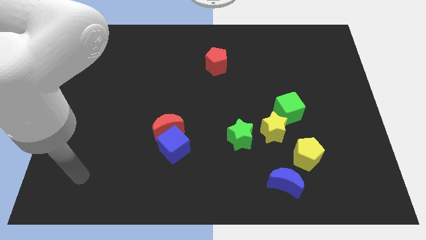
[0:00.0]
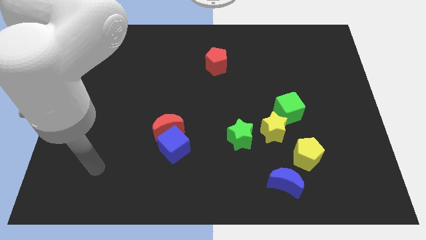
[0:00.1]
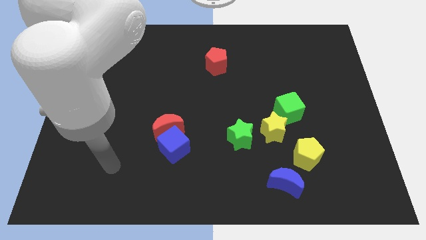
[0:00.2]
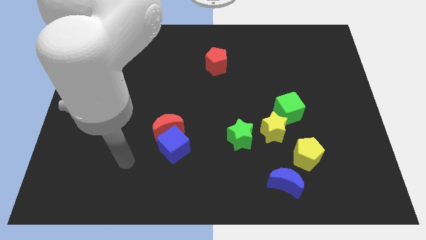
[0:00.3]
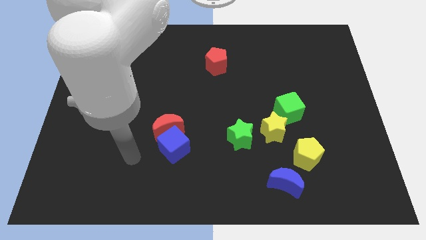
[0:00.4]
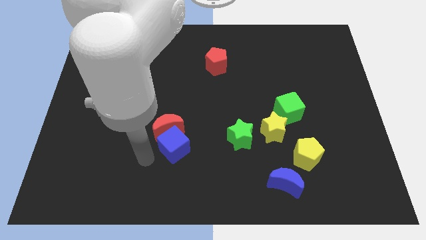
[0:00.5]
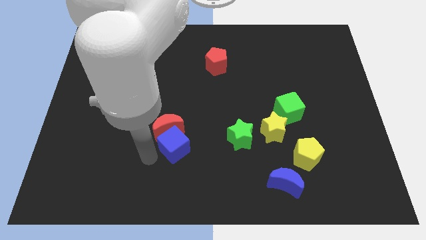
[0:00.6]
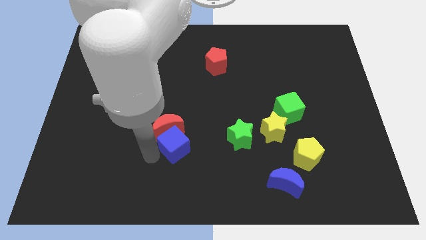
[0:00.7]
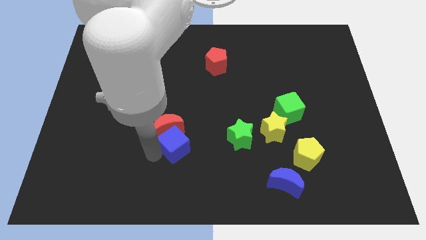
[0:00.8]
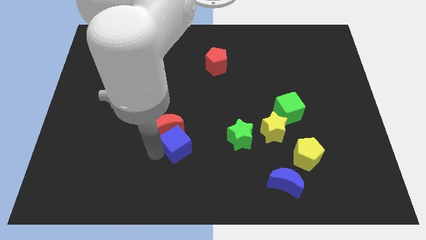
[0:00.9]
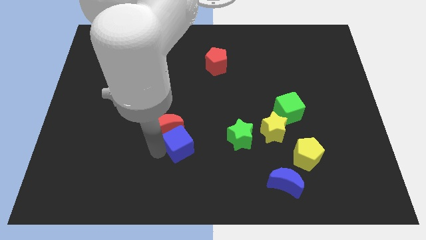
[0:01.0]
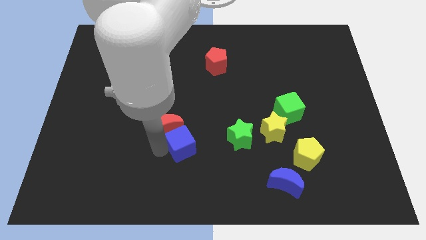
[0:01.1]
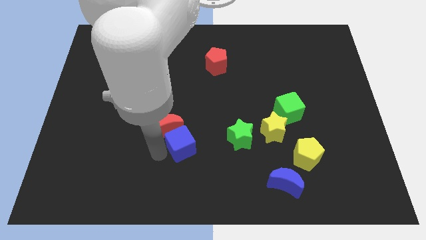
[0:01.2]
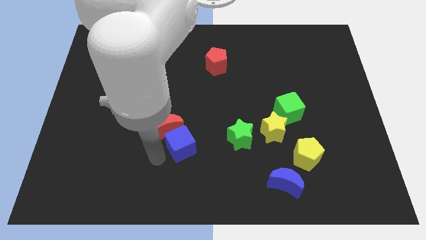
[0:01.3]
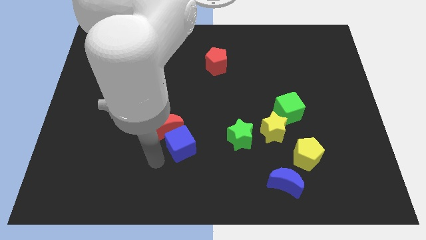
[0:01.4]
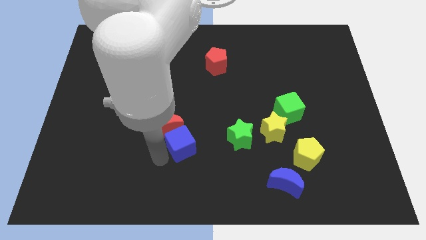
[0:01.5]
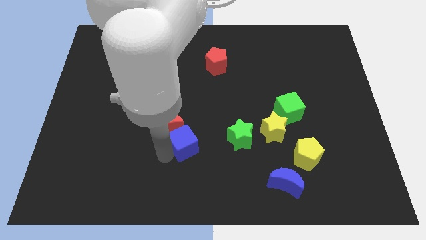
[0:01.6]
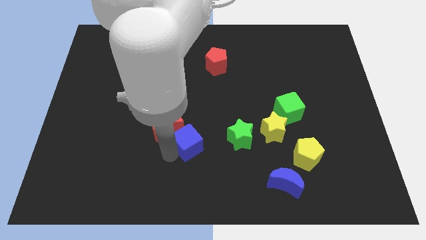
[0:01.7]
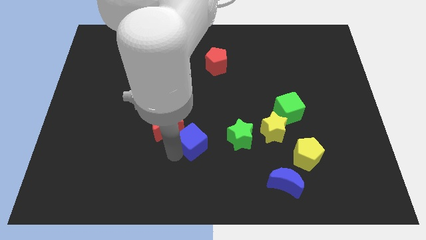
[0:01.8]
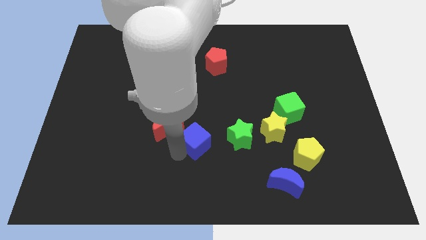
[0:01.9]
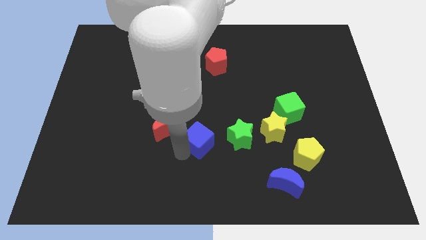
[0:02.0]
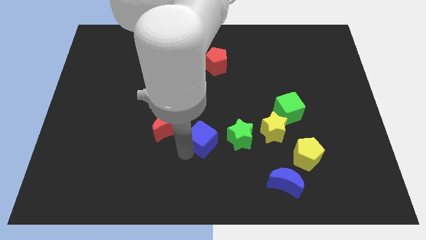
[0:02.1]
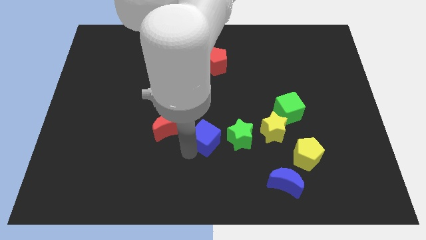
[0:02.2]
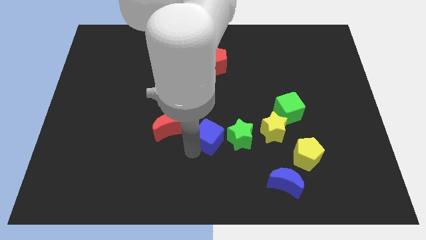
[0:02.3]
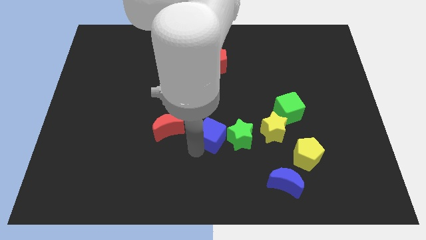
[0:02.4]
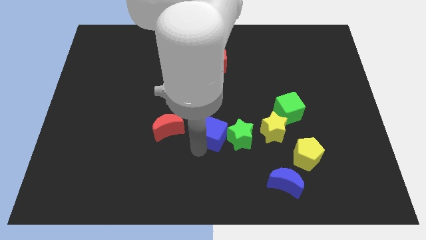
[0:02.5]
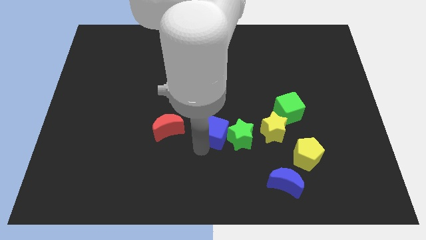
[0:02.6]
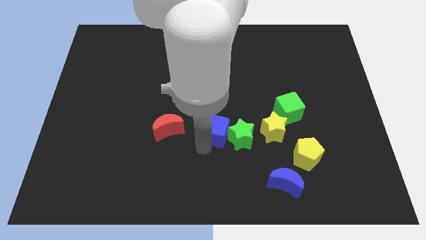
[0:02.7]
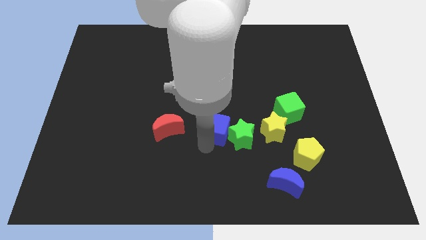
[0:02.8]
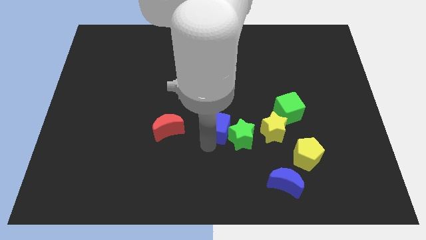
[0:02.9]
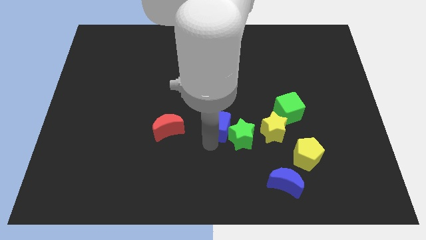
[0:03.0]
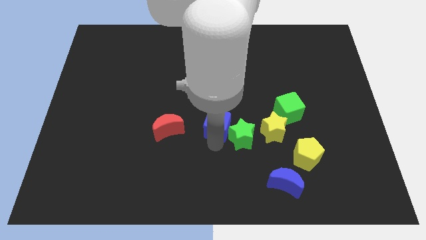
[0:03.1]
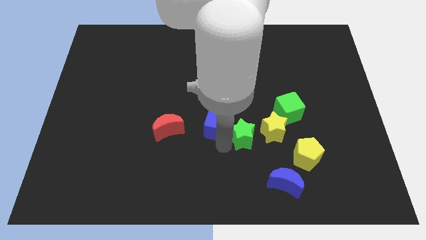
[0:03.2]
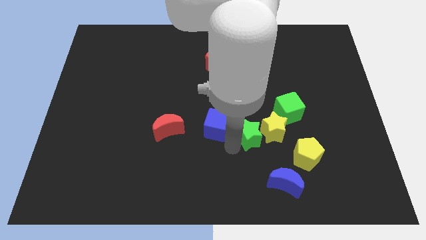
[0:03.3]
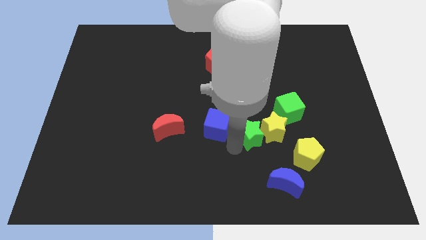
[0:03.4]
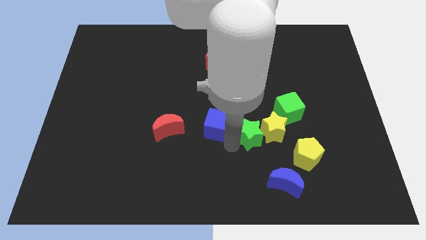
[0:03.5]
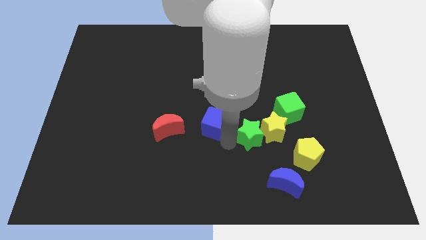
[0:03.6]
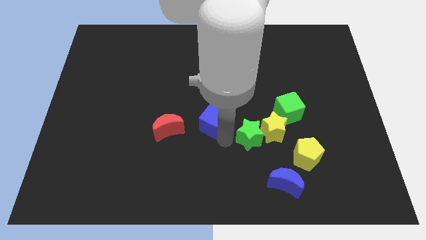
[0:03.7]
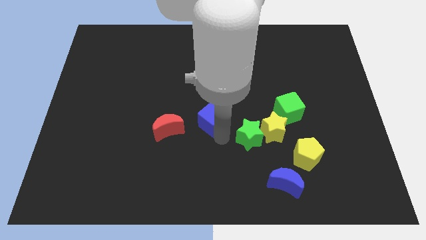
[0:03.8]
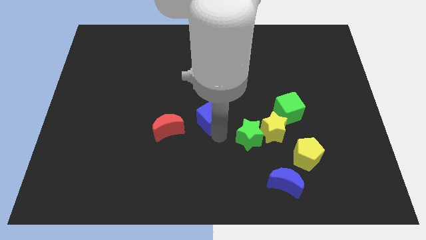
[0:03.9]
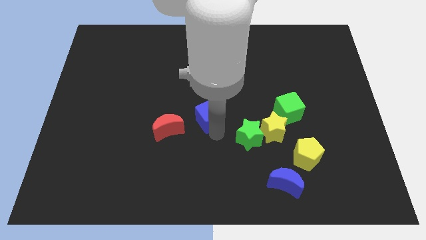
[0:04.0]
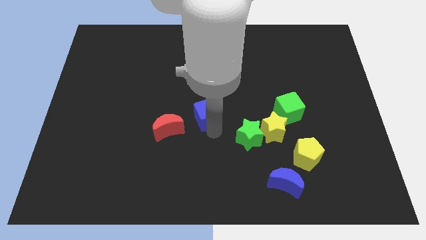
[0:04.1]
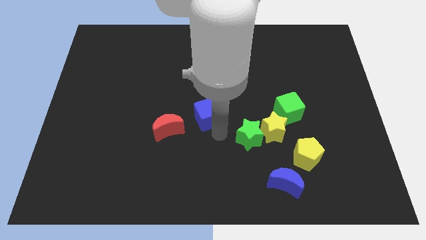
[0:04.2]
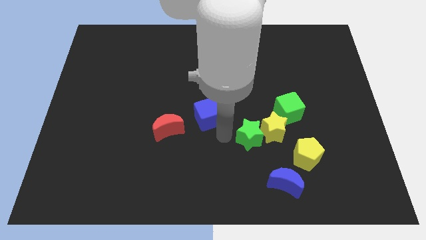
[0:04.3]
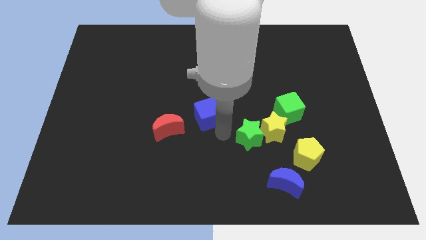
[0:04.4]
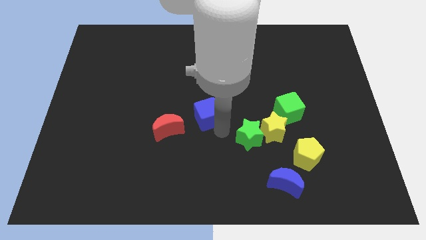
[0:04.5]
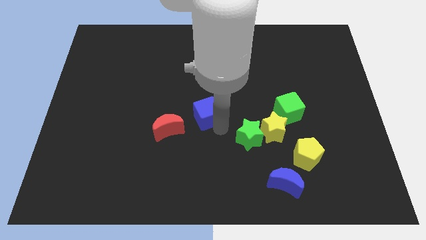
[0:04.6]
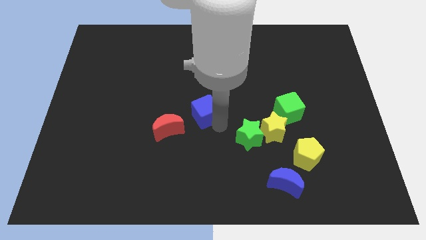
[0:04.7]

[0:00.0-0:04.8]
slide the blue cube a little up

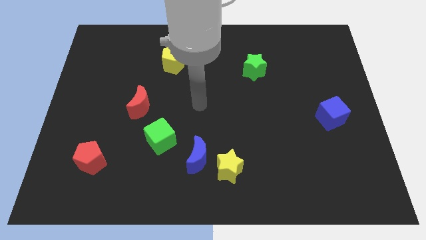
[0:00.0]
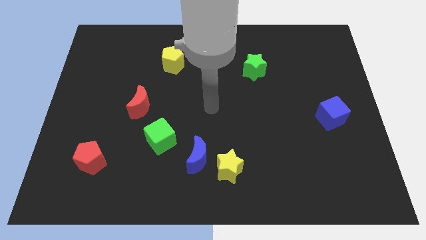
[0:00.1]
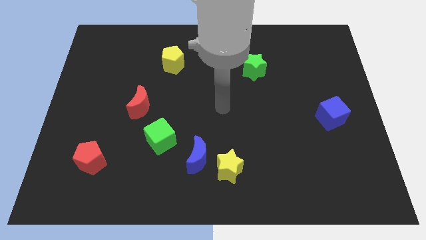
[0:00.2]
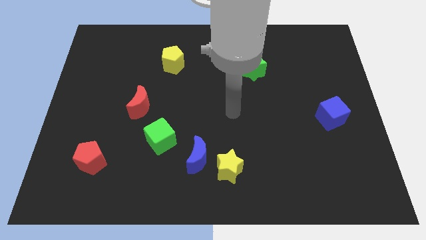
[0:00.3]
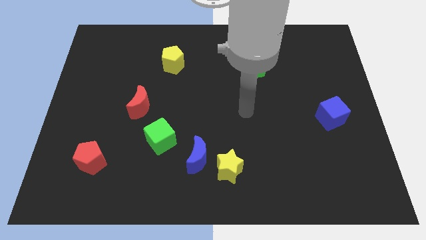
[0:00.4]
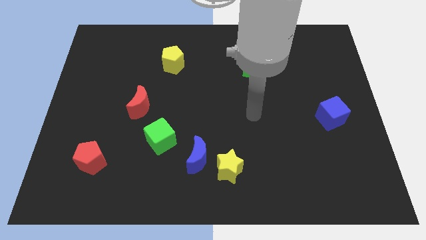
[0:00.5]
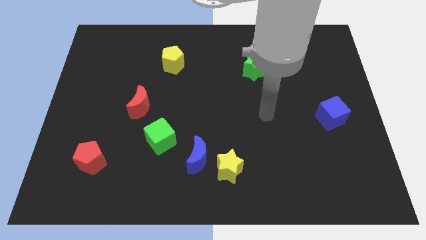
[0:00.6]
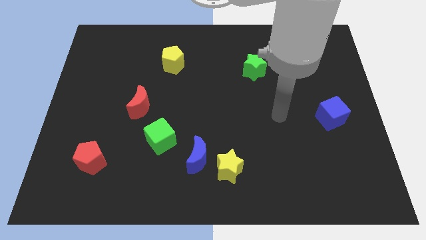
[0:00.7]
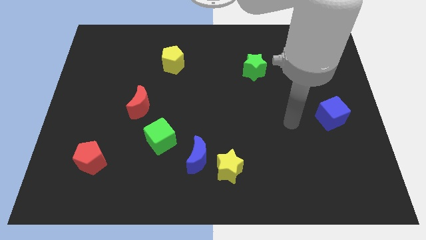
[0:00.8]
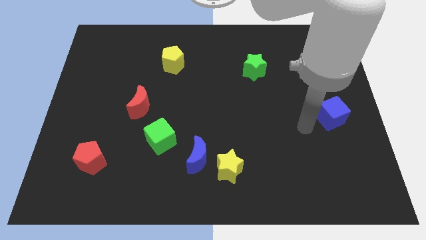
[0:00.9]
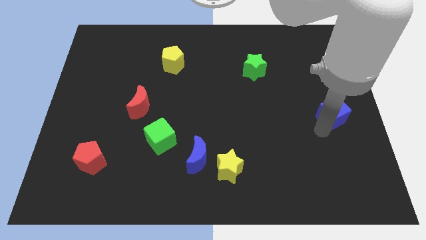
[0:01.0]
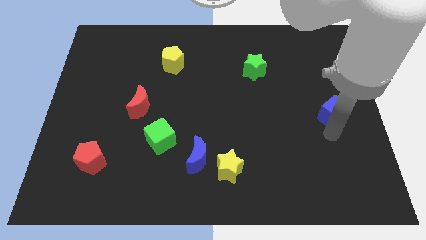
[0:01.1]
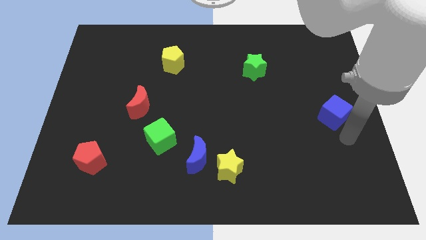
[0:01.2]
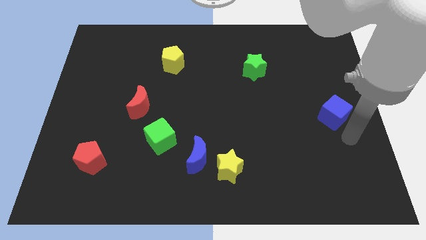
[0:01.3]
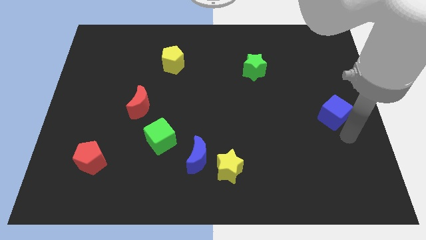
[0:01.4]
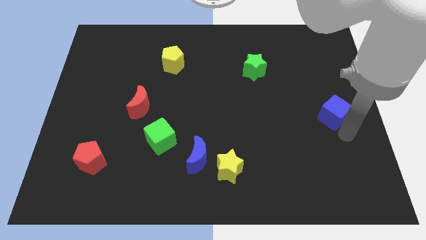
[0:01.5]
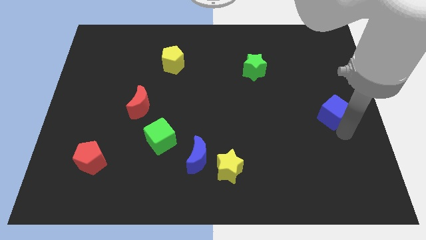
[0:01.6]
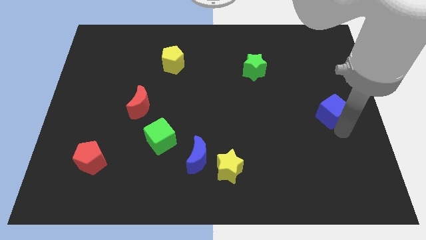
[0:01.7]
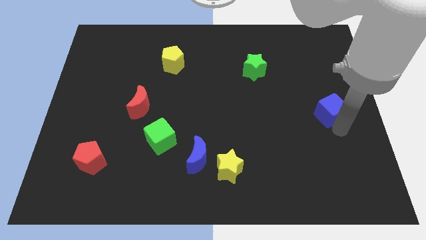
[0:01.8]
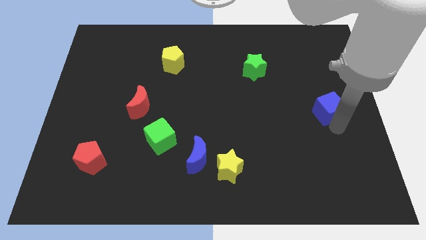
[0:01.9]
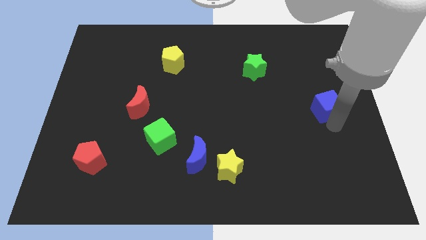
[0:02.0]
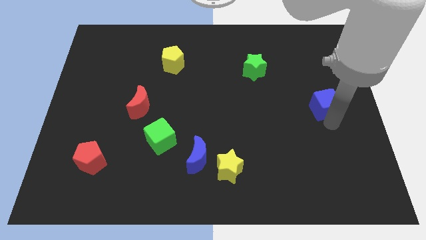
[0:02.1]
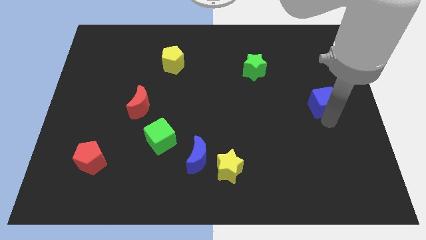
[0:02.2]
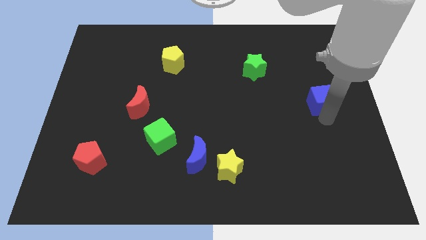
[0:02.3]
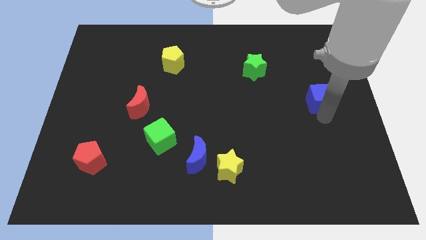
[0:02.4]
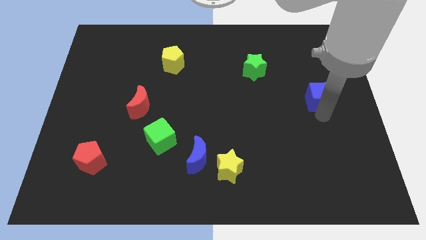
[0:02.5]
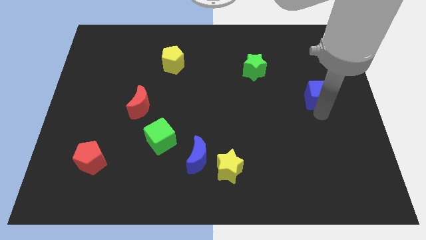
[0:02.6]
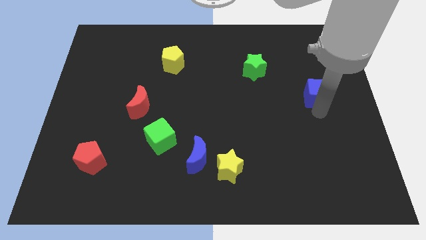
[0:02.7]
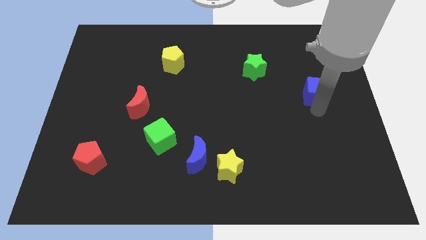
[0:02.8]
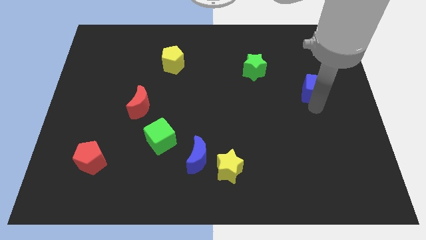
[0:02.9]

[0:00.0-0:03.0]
move the blue cube somewhat up

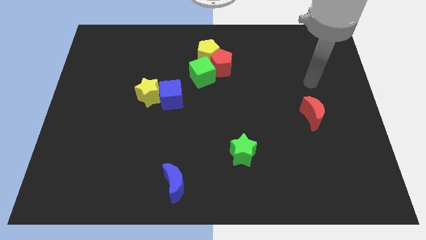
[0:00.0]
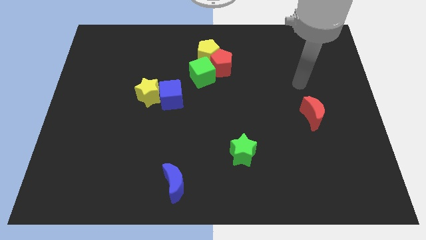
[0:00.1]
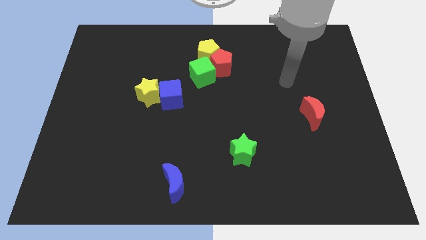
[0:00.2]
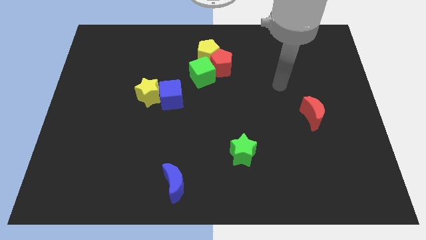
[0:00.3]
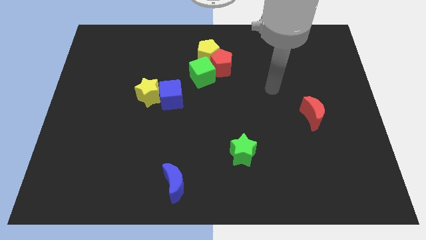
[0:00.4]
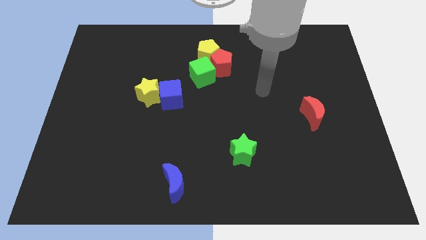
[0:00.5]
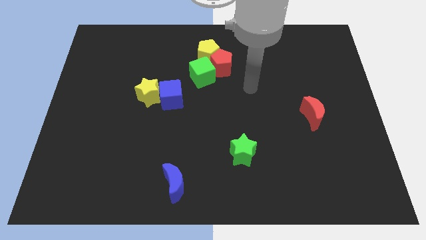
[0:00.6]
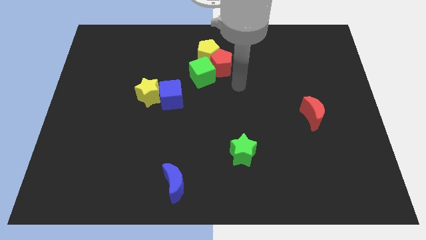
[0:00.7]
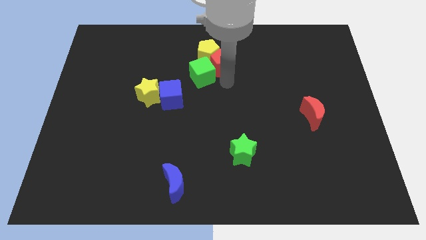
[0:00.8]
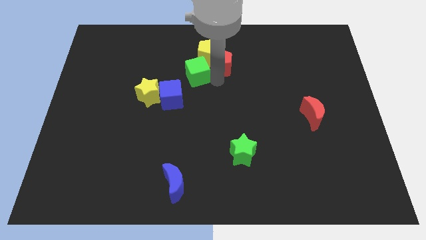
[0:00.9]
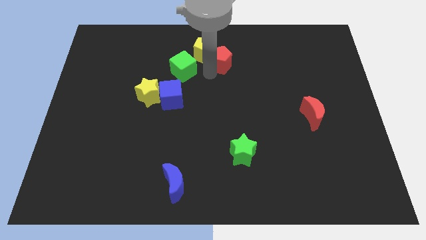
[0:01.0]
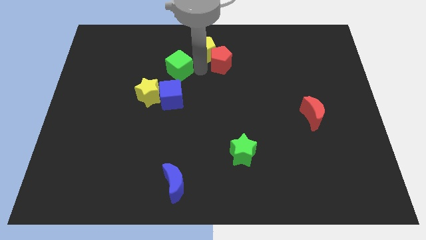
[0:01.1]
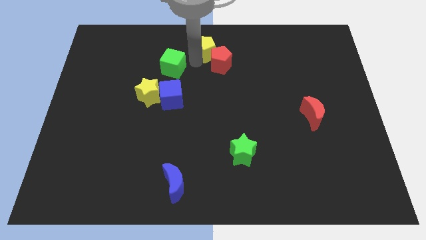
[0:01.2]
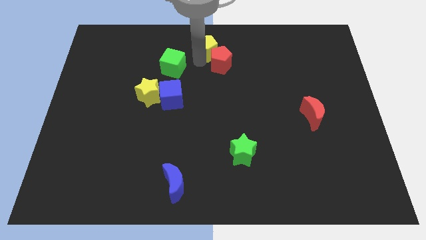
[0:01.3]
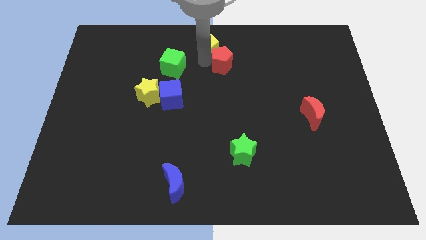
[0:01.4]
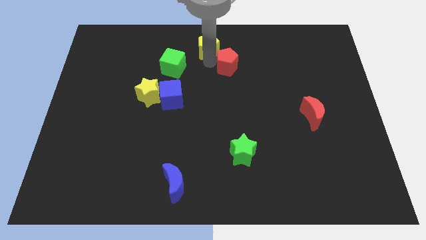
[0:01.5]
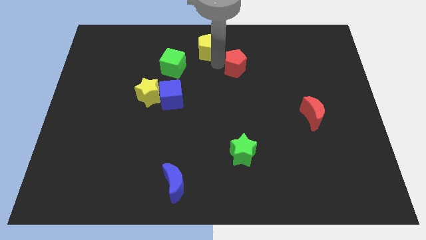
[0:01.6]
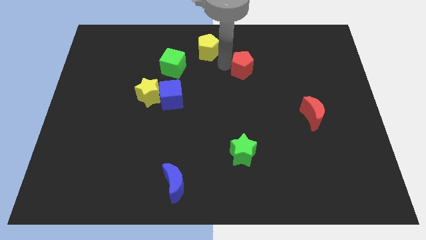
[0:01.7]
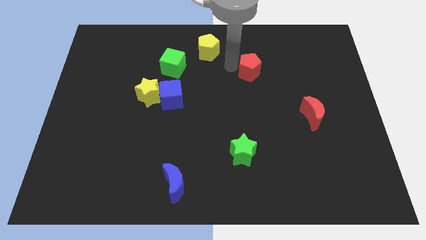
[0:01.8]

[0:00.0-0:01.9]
push the red pentagon right a little
